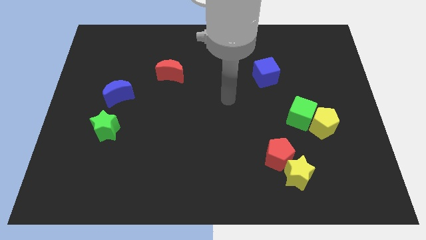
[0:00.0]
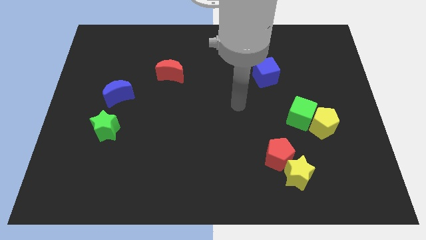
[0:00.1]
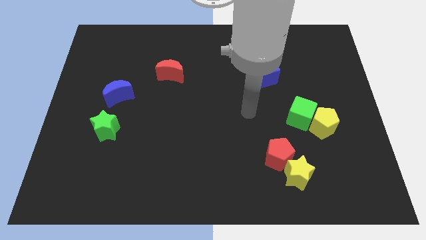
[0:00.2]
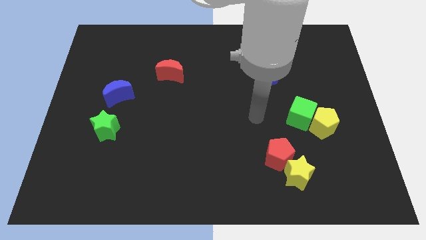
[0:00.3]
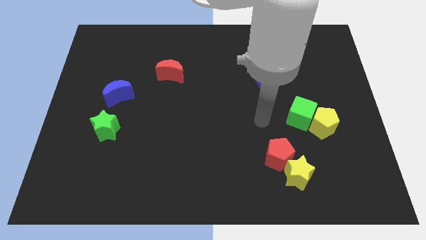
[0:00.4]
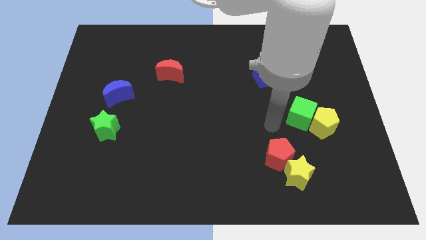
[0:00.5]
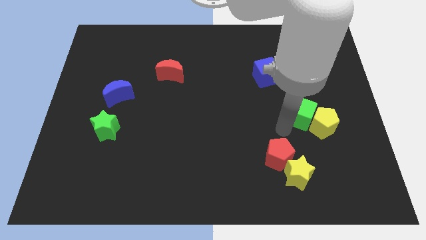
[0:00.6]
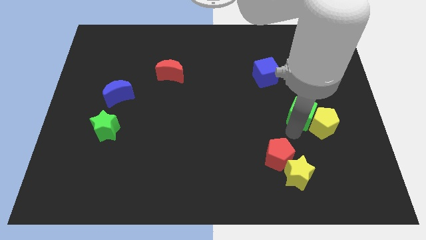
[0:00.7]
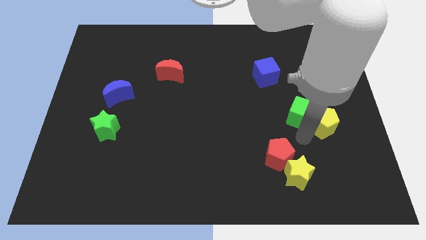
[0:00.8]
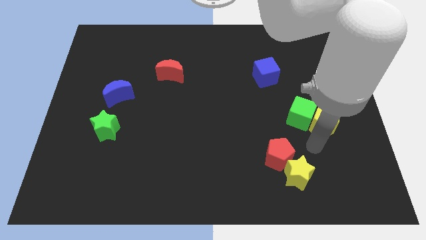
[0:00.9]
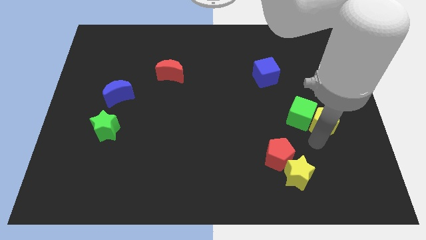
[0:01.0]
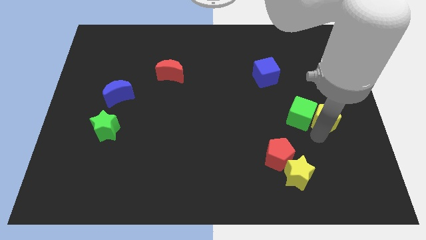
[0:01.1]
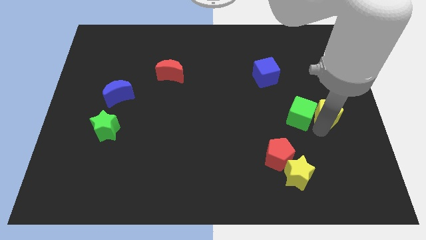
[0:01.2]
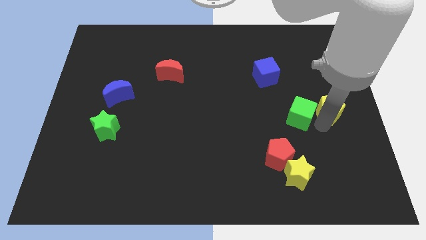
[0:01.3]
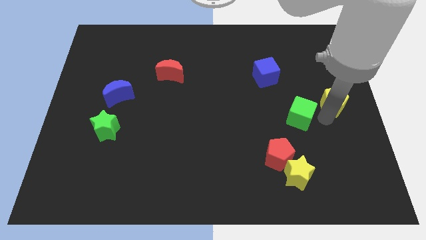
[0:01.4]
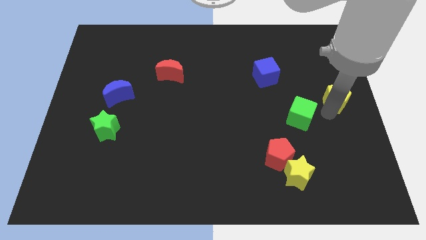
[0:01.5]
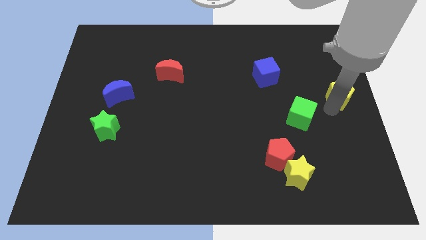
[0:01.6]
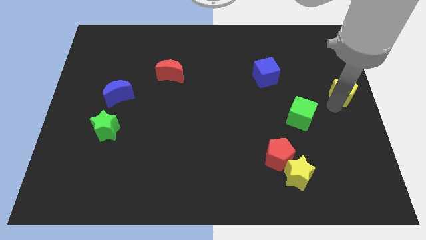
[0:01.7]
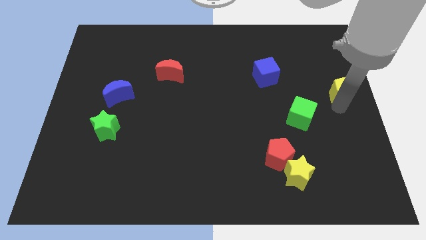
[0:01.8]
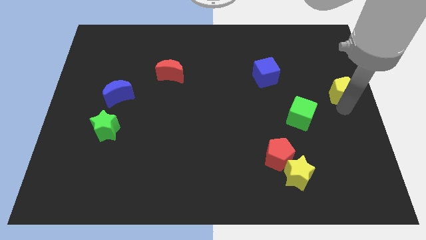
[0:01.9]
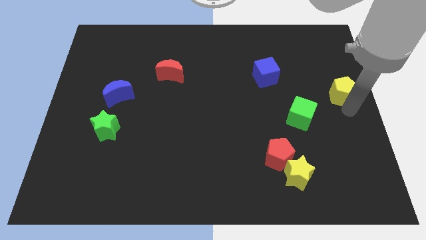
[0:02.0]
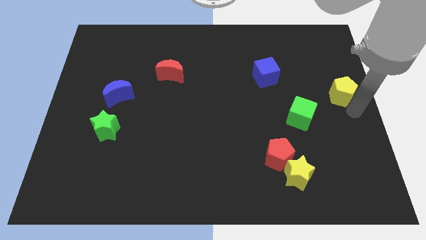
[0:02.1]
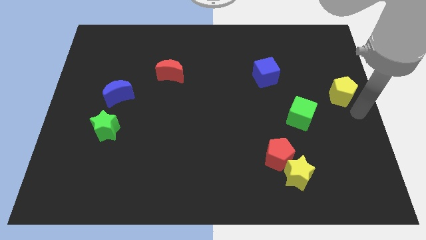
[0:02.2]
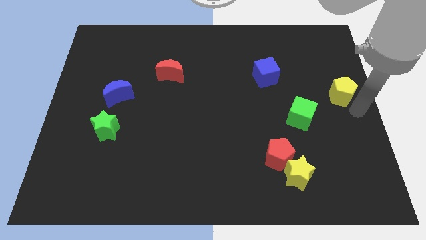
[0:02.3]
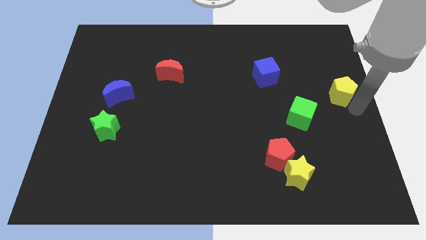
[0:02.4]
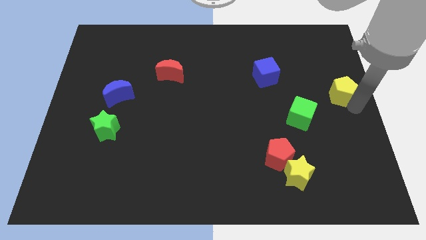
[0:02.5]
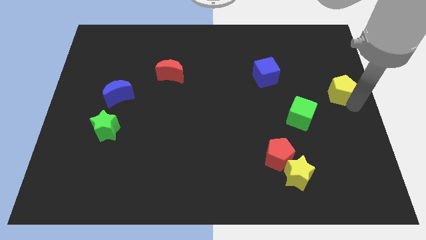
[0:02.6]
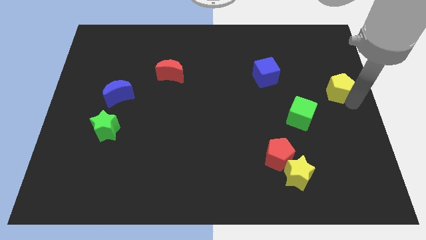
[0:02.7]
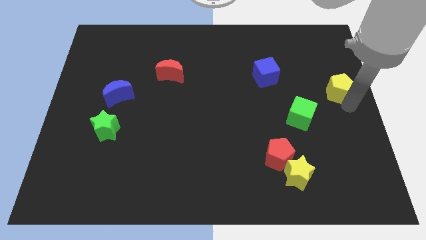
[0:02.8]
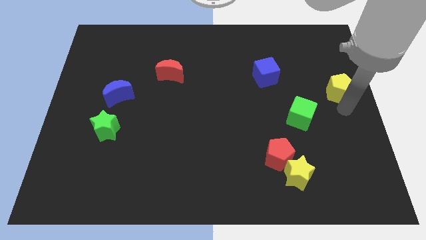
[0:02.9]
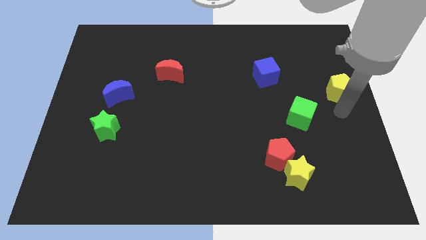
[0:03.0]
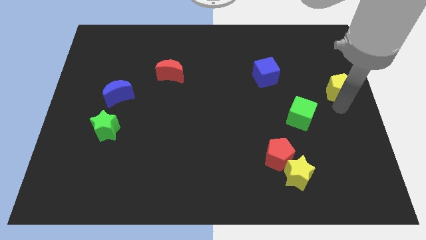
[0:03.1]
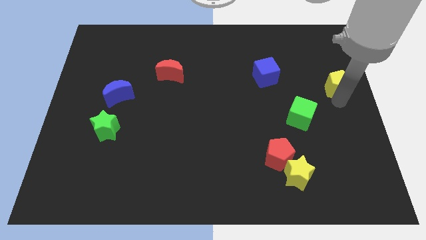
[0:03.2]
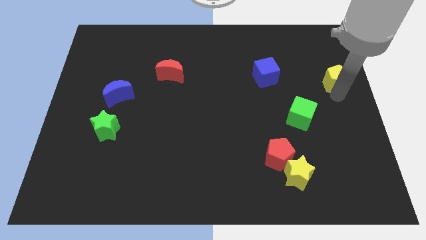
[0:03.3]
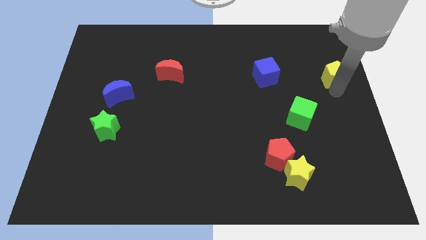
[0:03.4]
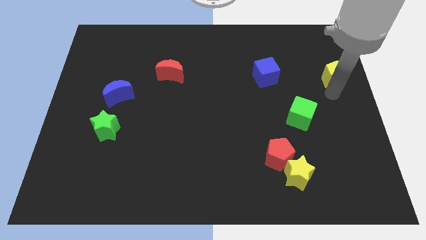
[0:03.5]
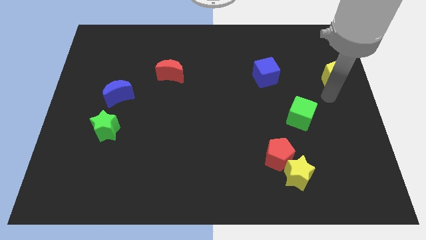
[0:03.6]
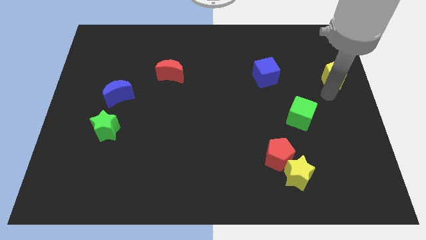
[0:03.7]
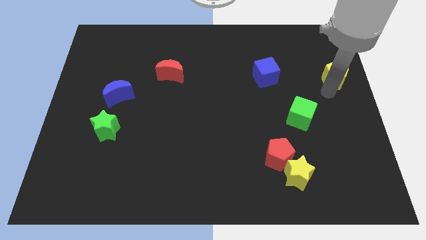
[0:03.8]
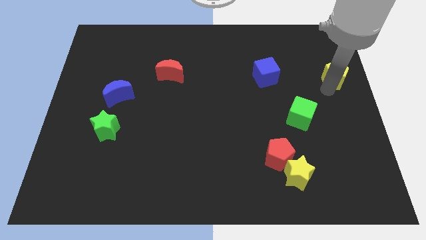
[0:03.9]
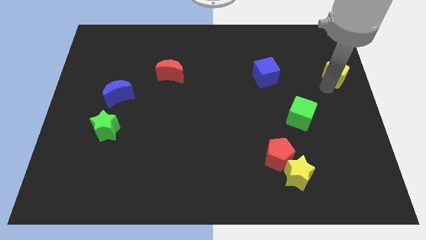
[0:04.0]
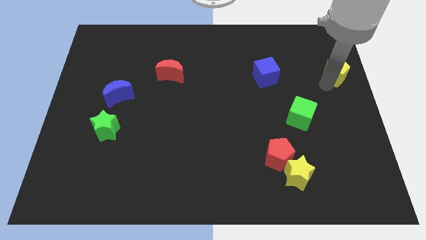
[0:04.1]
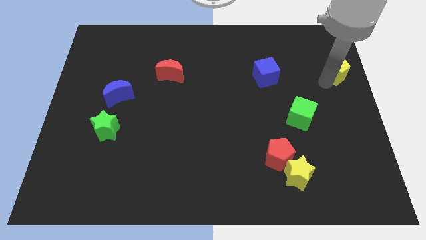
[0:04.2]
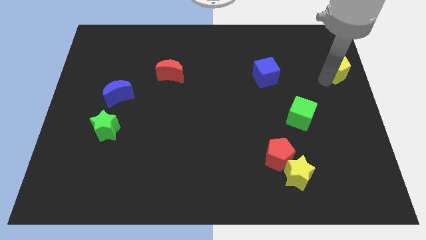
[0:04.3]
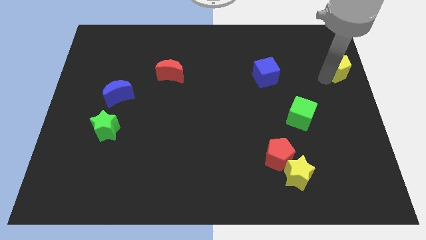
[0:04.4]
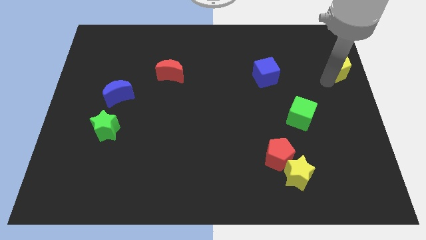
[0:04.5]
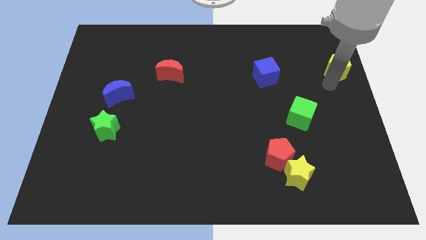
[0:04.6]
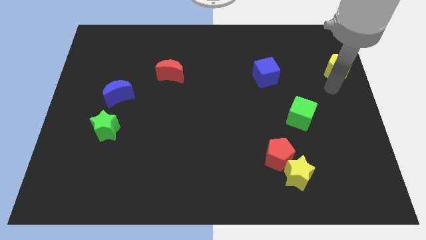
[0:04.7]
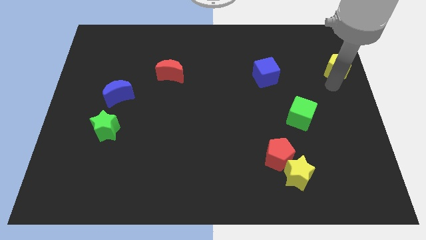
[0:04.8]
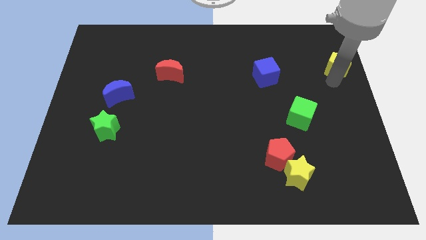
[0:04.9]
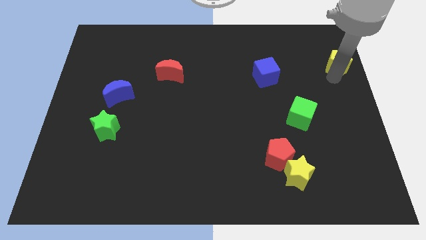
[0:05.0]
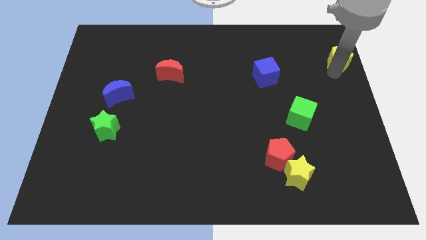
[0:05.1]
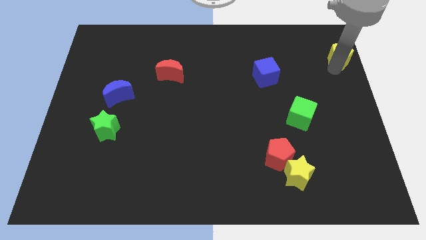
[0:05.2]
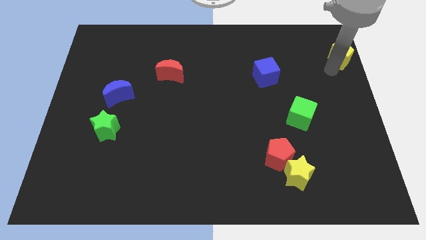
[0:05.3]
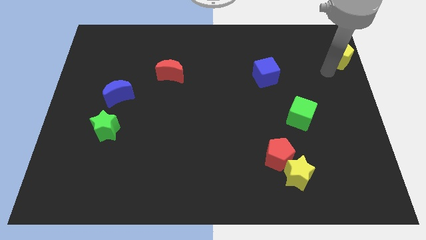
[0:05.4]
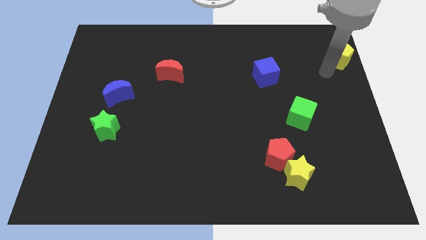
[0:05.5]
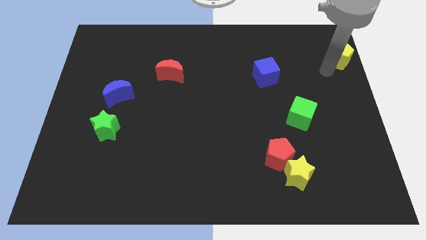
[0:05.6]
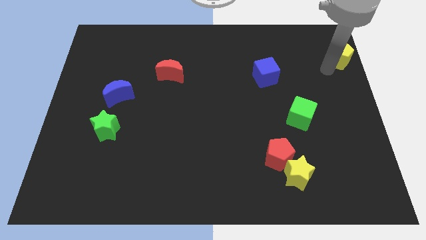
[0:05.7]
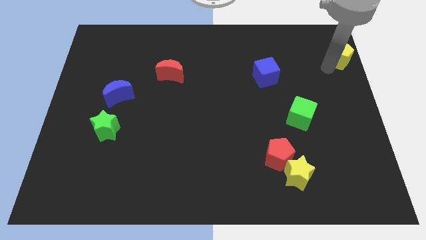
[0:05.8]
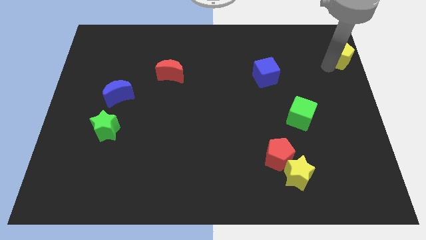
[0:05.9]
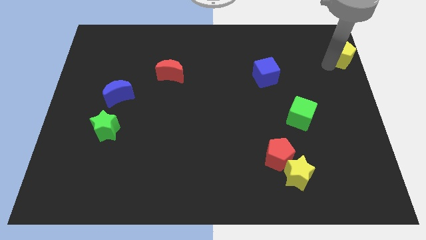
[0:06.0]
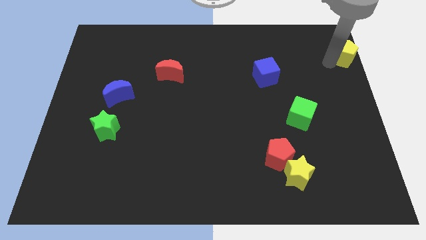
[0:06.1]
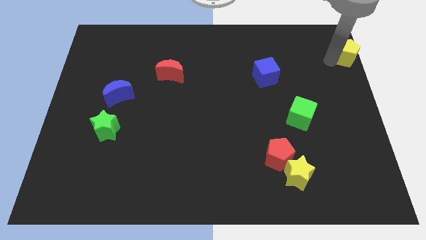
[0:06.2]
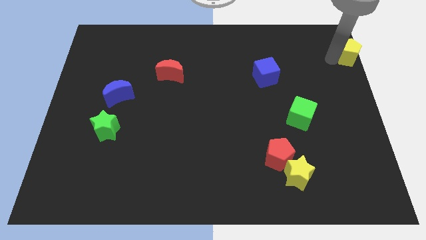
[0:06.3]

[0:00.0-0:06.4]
put the yellow pentagon to the upper right corner

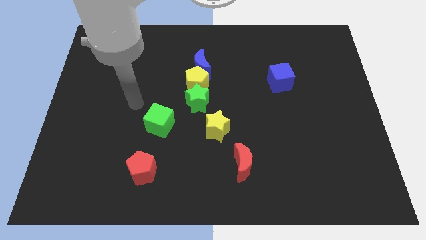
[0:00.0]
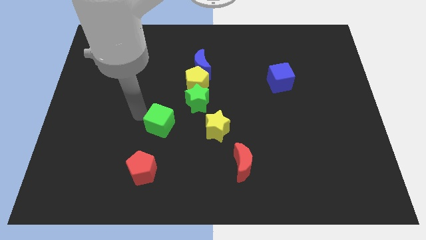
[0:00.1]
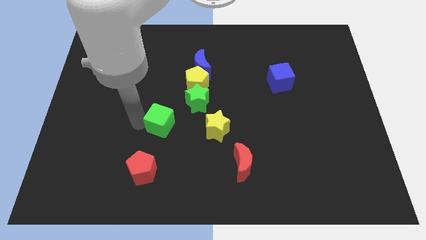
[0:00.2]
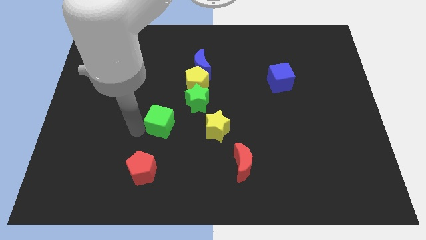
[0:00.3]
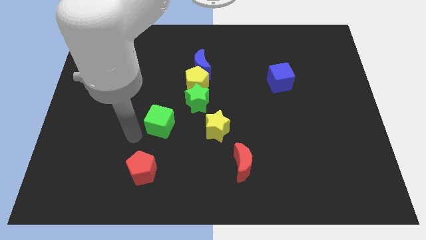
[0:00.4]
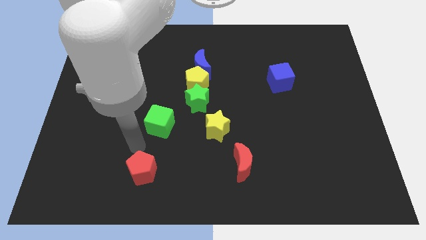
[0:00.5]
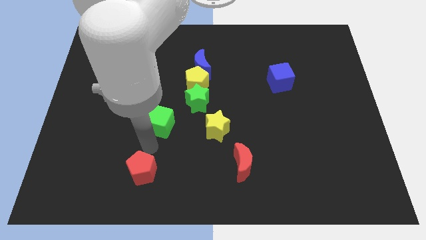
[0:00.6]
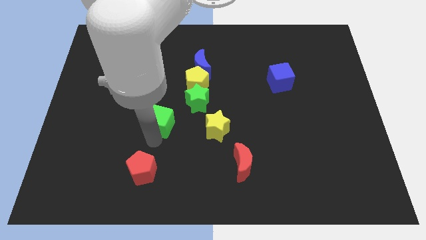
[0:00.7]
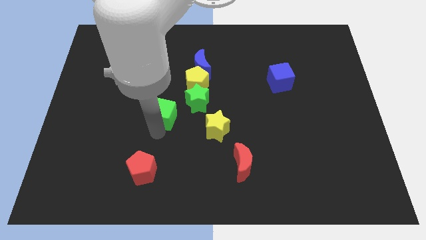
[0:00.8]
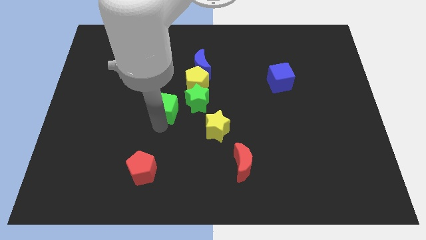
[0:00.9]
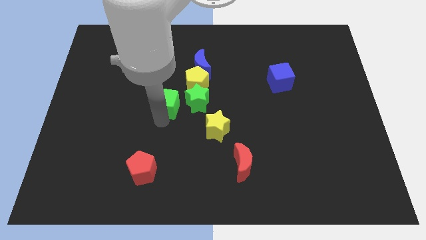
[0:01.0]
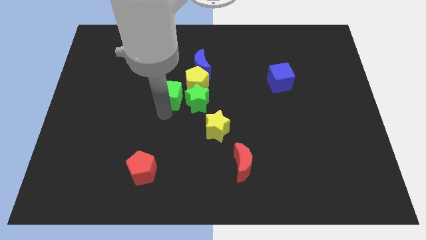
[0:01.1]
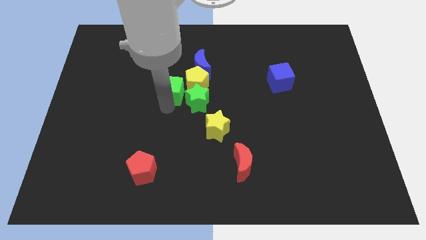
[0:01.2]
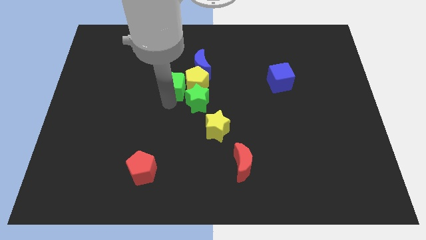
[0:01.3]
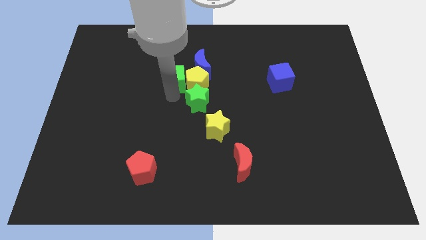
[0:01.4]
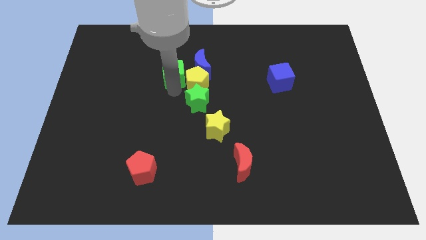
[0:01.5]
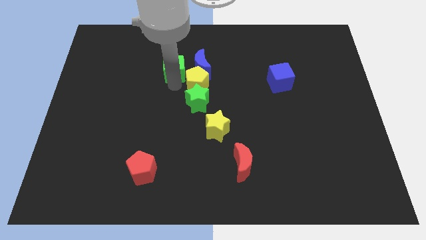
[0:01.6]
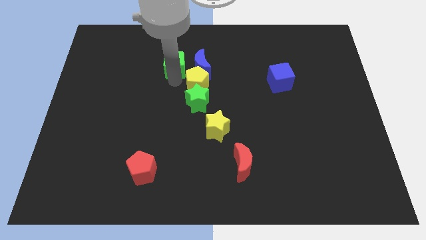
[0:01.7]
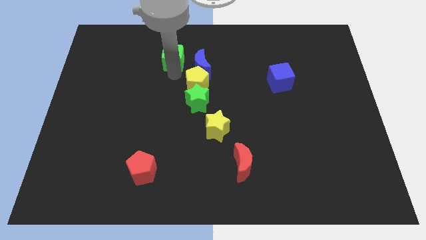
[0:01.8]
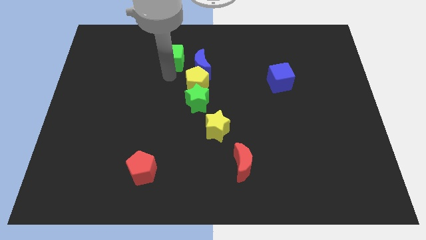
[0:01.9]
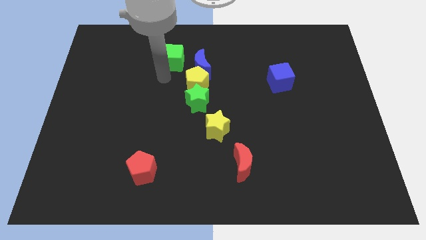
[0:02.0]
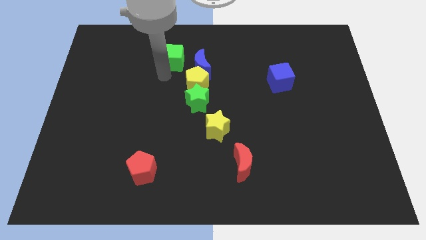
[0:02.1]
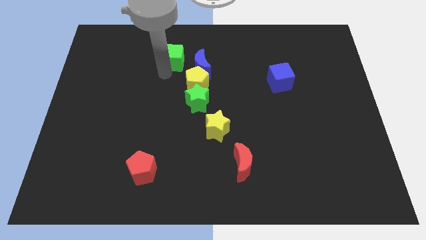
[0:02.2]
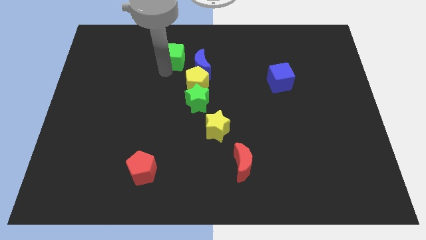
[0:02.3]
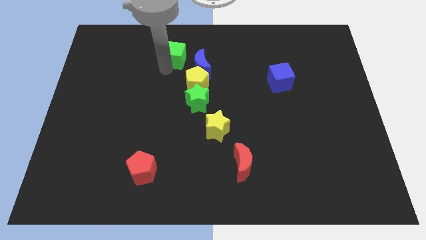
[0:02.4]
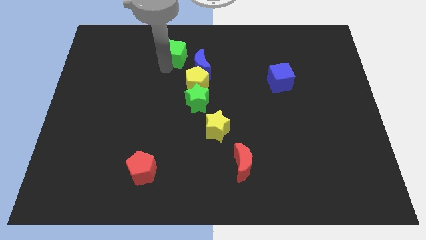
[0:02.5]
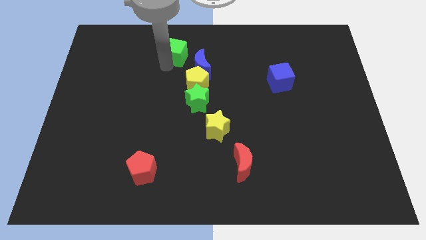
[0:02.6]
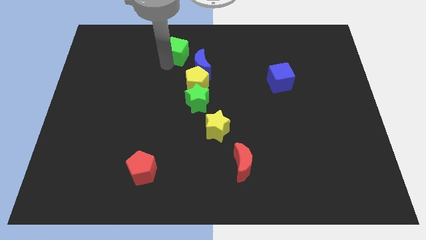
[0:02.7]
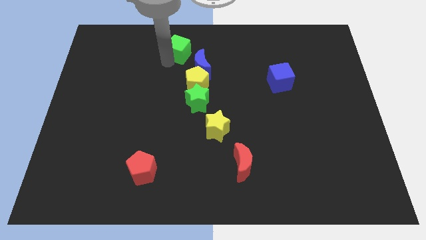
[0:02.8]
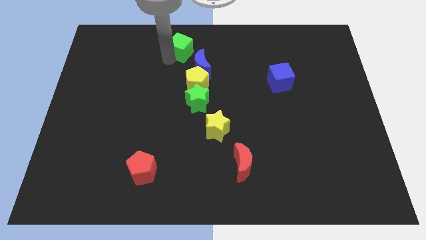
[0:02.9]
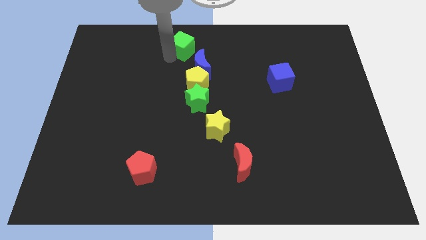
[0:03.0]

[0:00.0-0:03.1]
push the green cube to the top
